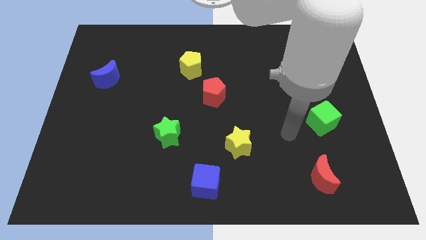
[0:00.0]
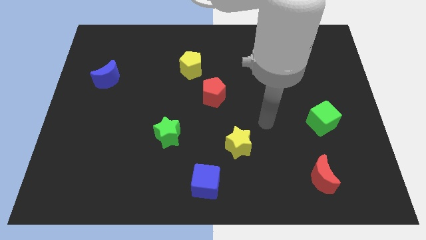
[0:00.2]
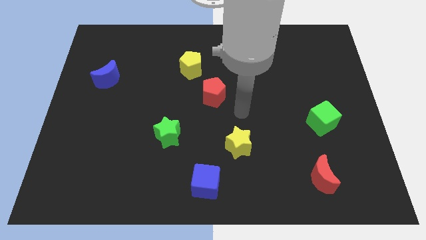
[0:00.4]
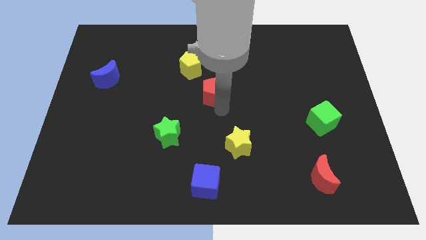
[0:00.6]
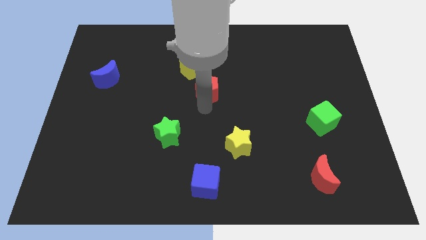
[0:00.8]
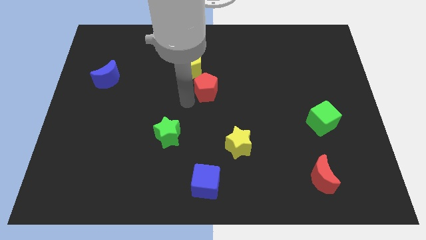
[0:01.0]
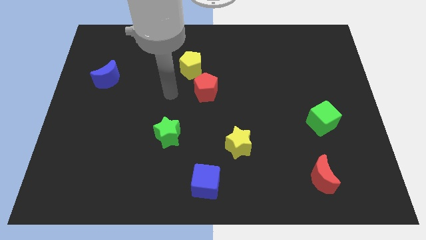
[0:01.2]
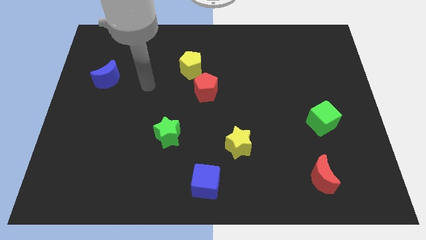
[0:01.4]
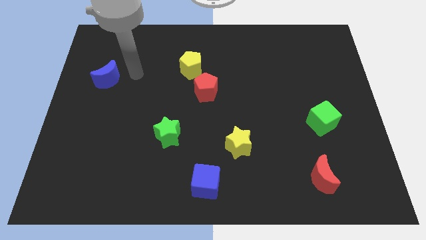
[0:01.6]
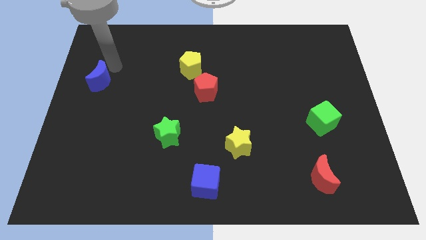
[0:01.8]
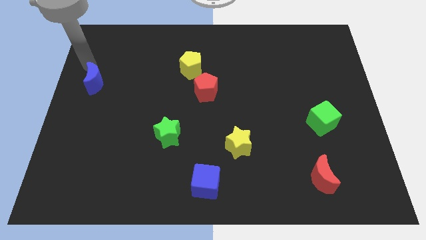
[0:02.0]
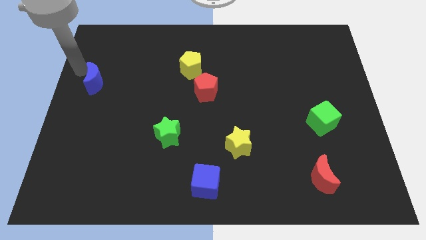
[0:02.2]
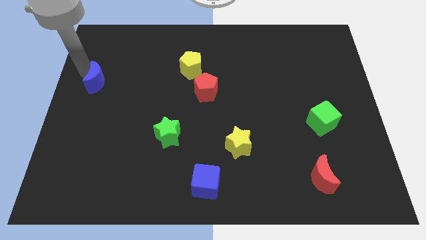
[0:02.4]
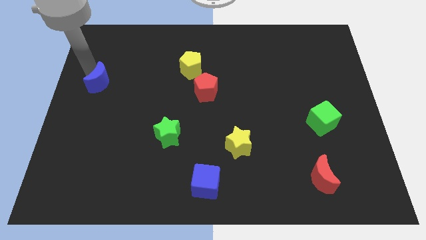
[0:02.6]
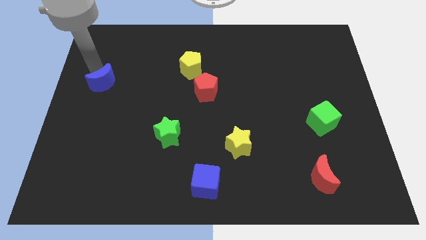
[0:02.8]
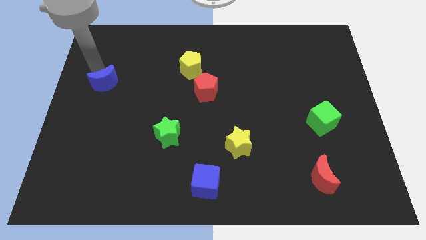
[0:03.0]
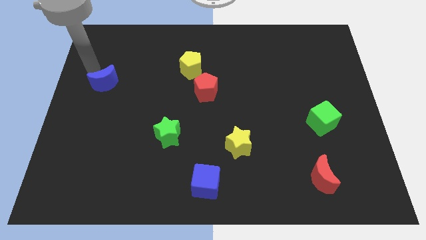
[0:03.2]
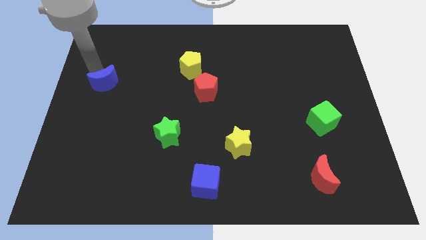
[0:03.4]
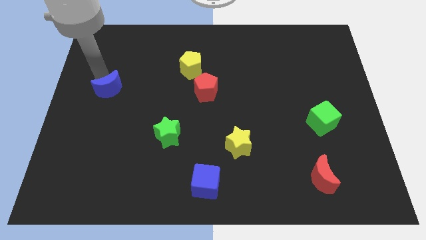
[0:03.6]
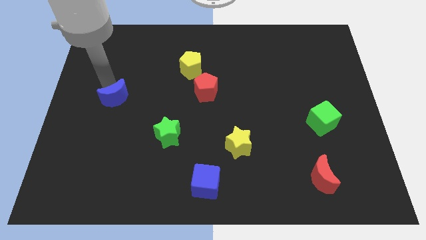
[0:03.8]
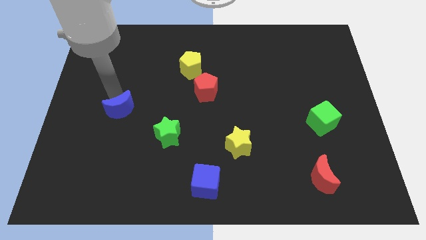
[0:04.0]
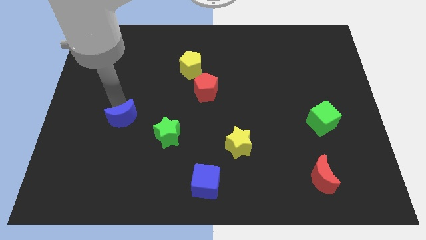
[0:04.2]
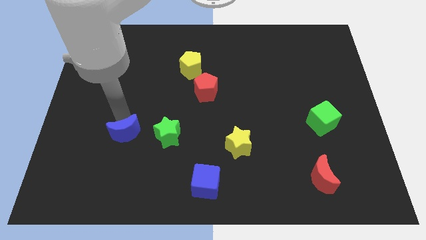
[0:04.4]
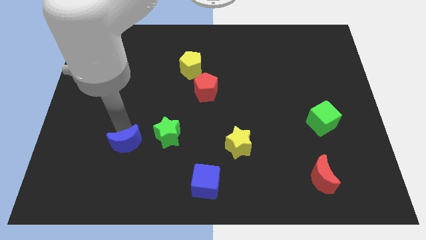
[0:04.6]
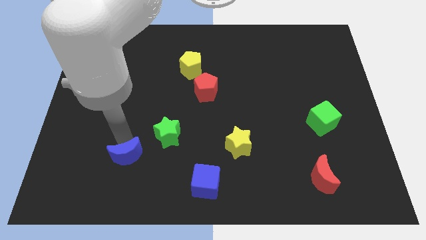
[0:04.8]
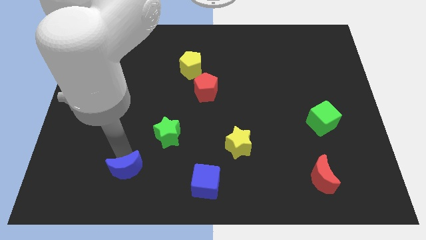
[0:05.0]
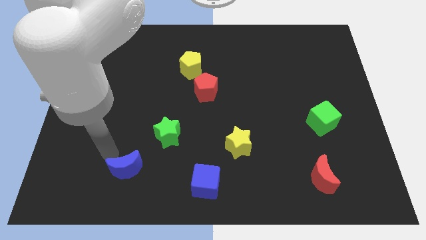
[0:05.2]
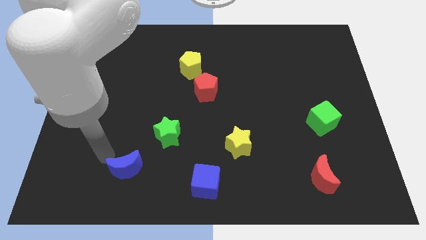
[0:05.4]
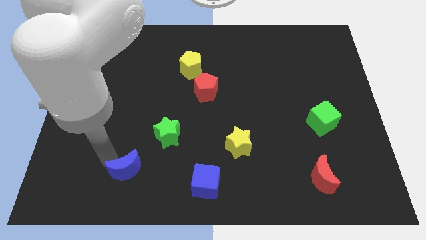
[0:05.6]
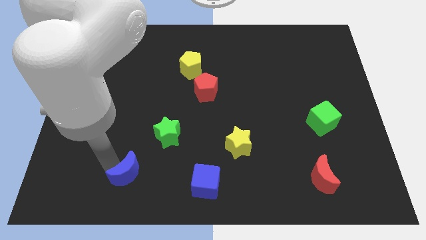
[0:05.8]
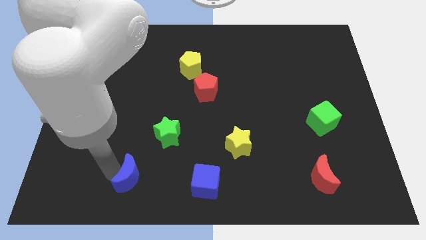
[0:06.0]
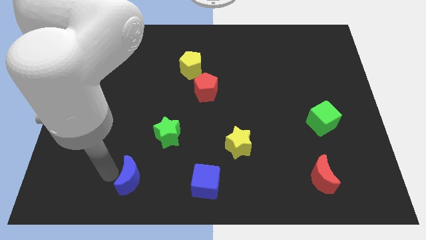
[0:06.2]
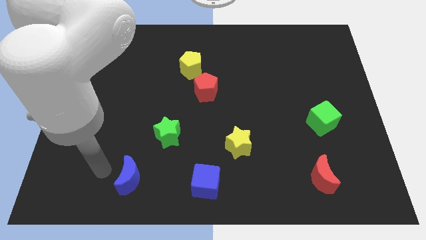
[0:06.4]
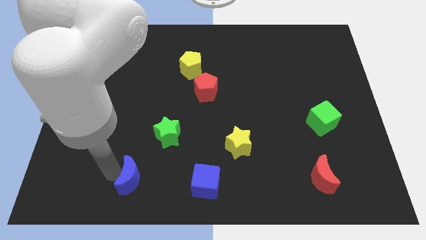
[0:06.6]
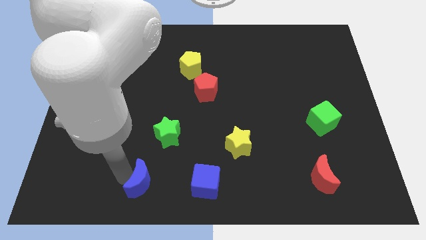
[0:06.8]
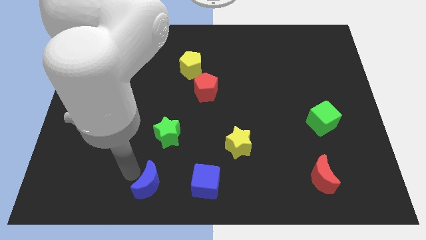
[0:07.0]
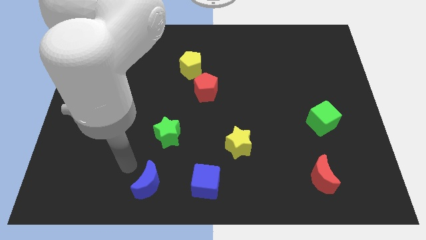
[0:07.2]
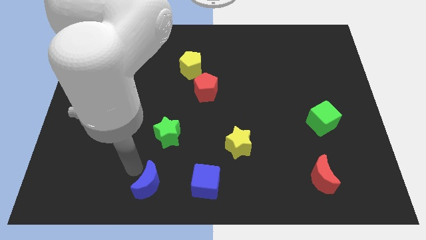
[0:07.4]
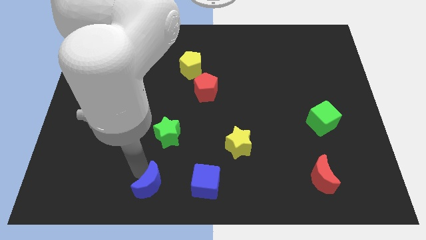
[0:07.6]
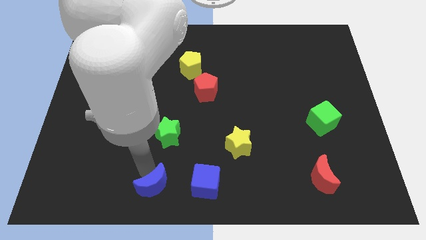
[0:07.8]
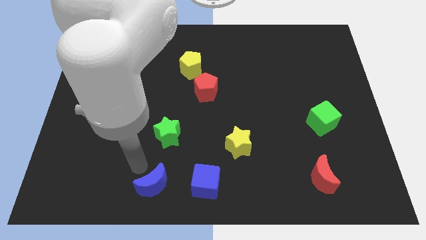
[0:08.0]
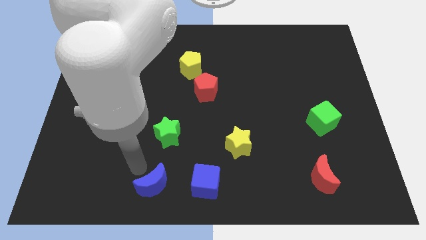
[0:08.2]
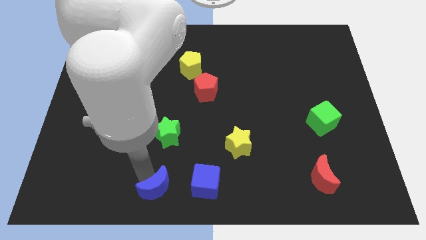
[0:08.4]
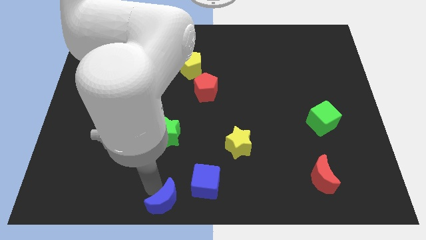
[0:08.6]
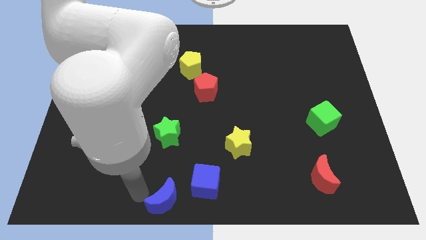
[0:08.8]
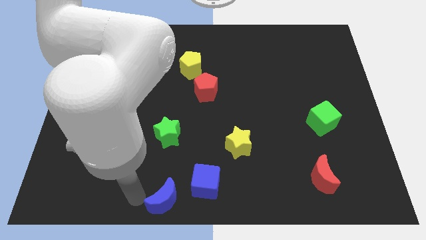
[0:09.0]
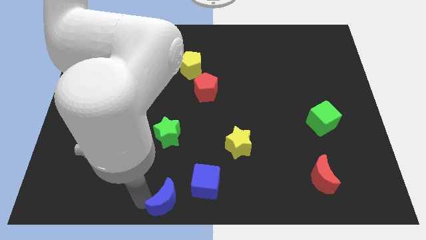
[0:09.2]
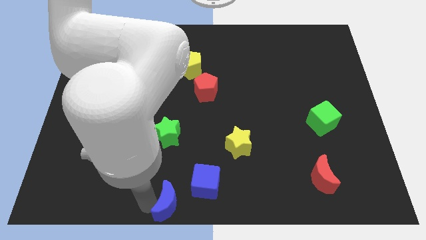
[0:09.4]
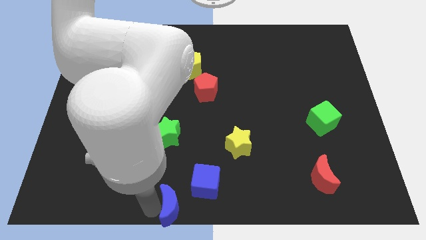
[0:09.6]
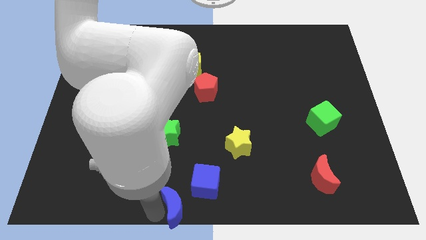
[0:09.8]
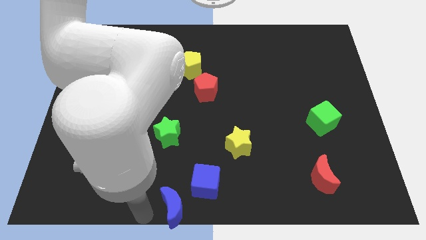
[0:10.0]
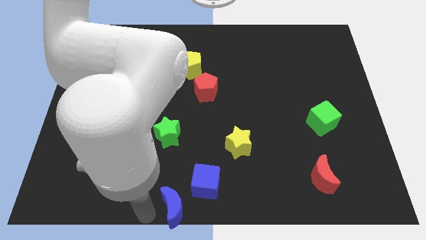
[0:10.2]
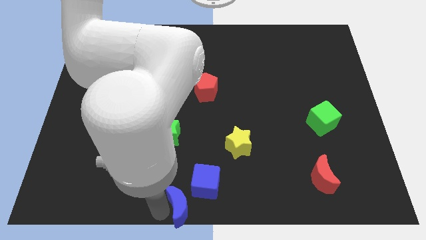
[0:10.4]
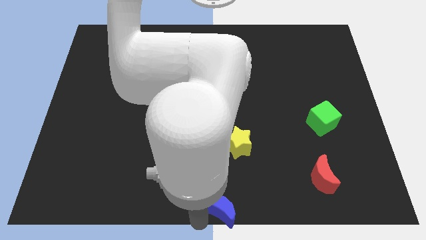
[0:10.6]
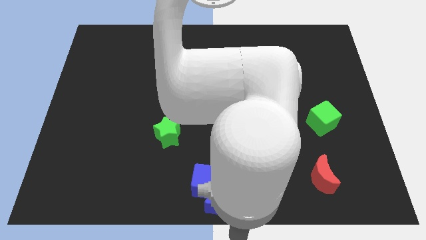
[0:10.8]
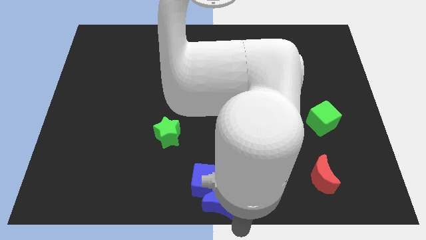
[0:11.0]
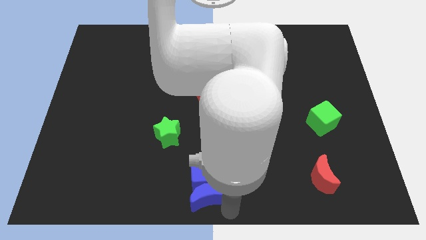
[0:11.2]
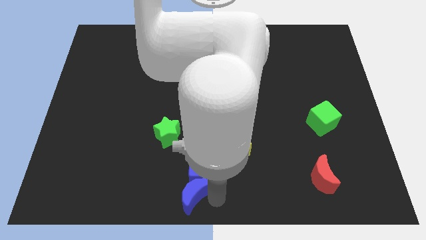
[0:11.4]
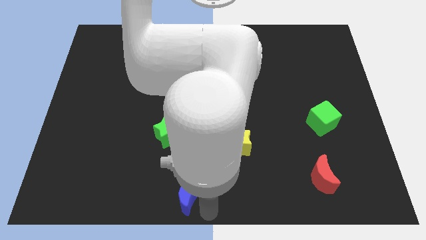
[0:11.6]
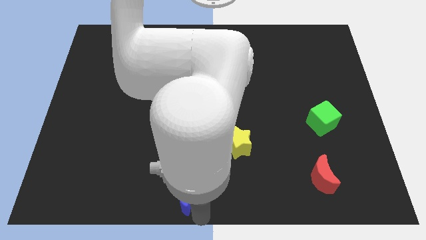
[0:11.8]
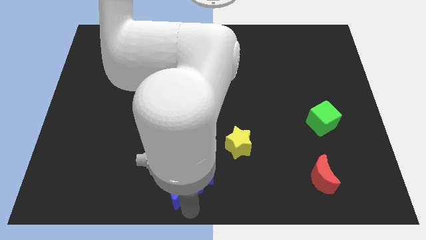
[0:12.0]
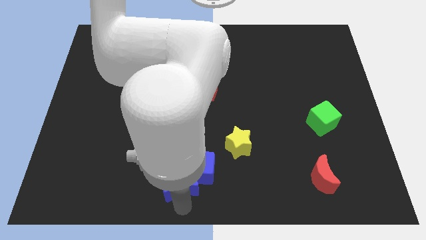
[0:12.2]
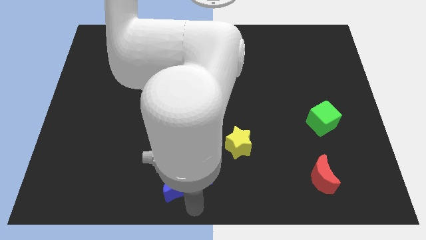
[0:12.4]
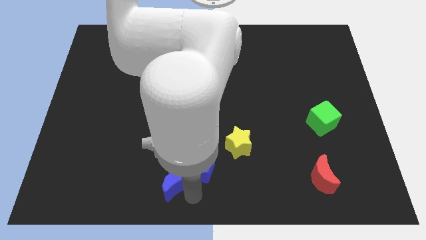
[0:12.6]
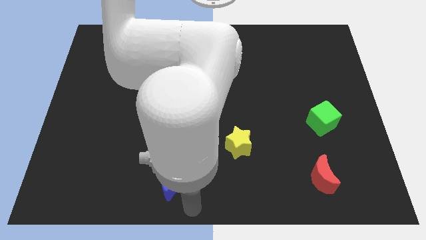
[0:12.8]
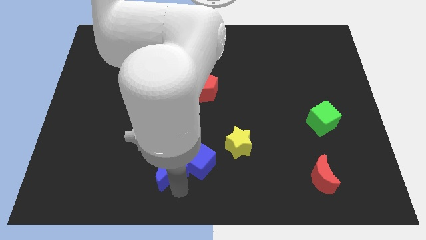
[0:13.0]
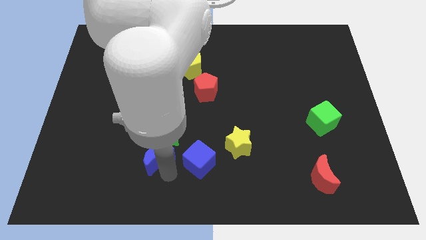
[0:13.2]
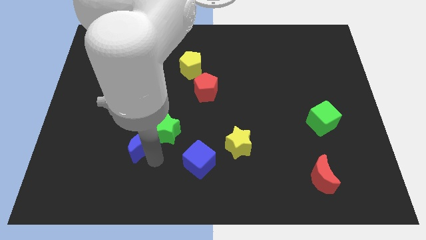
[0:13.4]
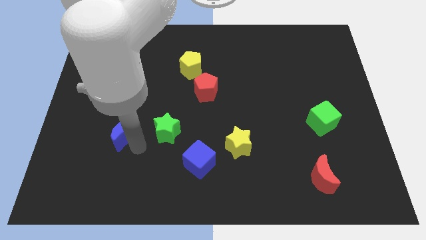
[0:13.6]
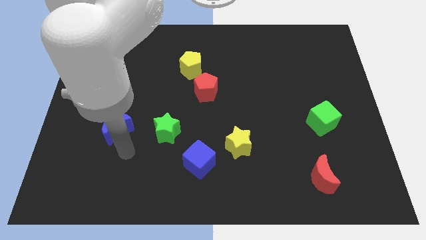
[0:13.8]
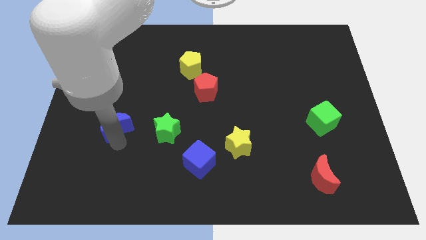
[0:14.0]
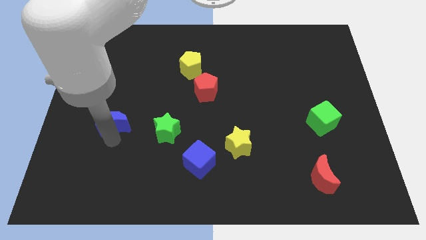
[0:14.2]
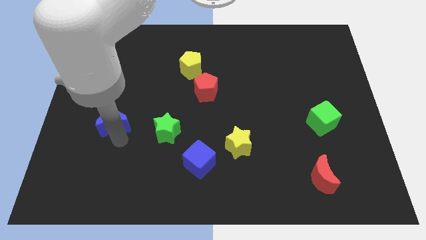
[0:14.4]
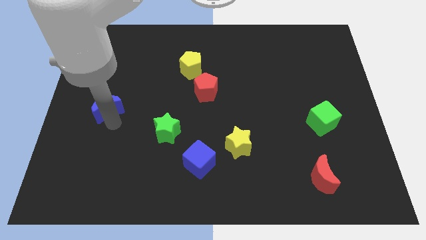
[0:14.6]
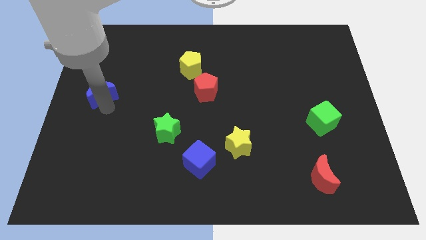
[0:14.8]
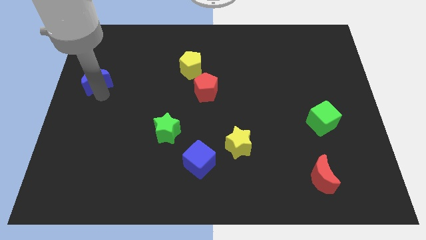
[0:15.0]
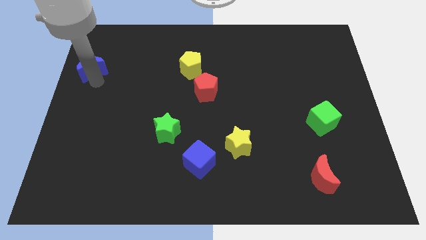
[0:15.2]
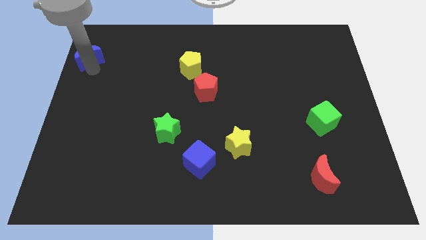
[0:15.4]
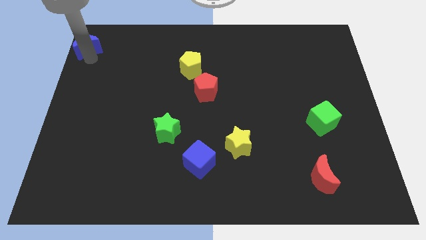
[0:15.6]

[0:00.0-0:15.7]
slide the blue moon to the top left corner

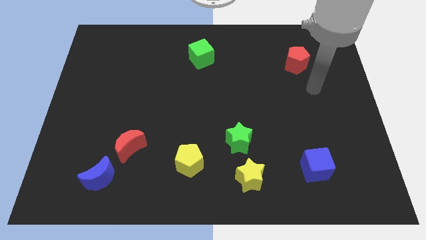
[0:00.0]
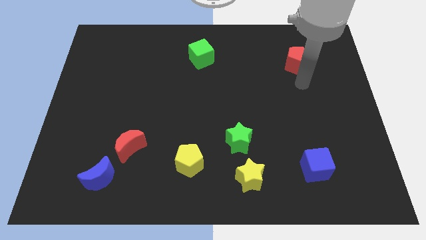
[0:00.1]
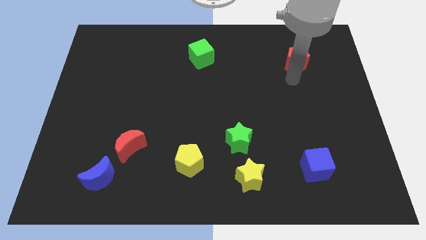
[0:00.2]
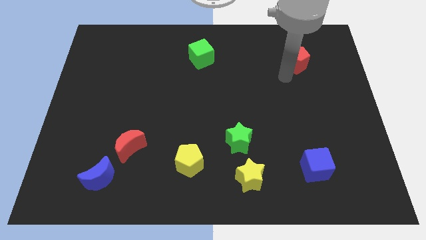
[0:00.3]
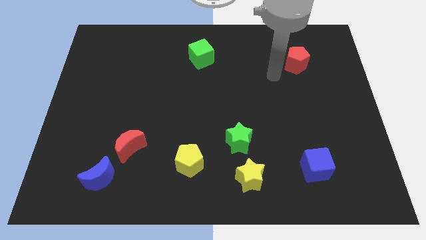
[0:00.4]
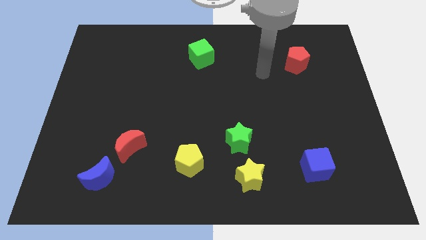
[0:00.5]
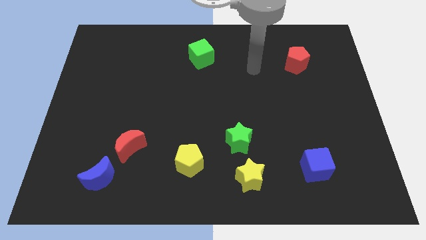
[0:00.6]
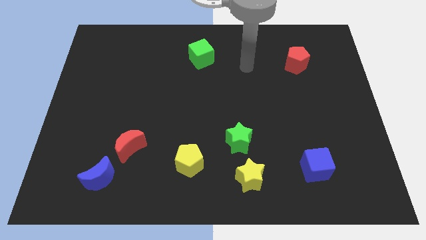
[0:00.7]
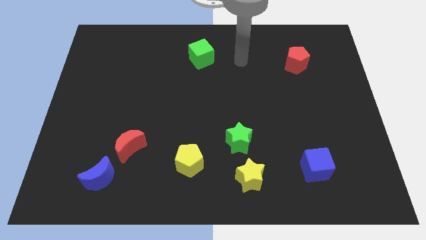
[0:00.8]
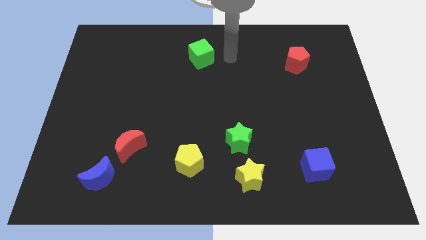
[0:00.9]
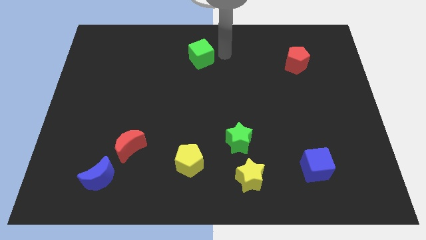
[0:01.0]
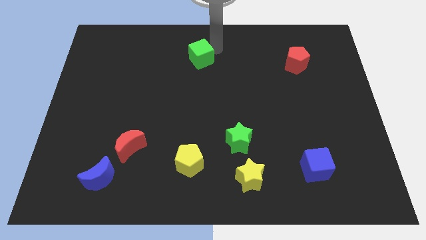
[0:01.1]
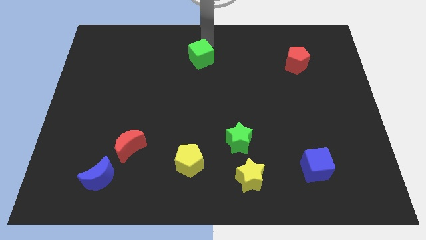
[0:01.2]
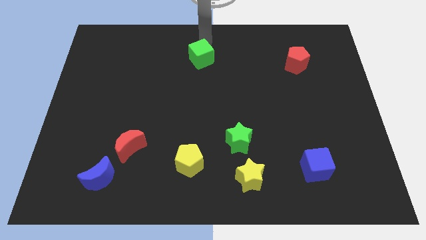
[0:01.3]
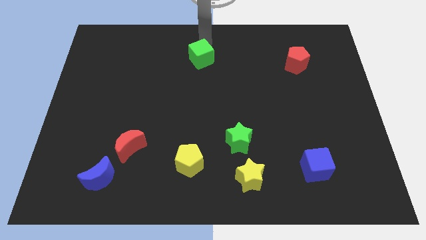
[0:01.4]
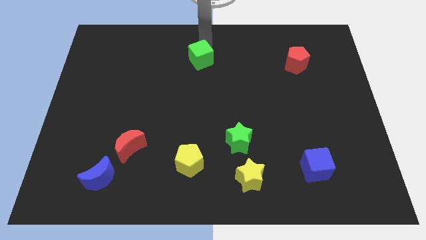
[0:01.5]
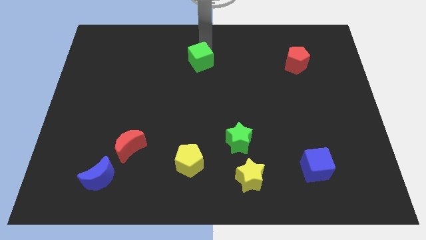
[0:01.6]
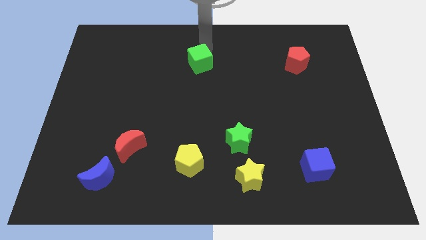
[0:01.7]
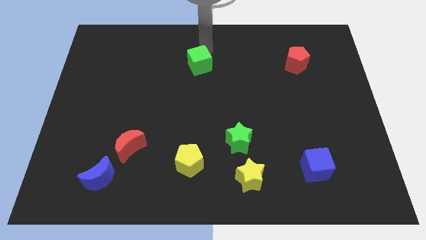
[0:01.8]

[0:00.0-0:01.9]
move the green cube to the center of the board
